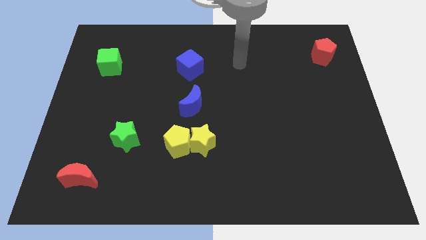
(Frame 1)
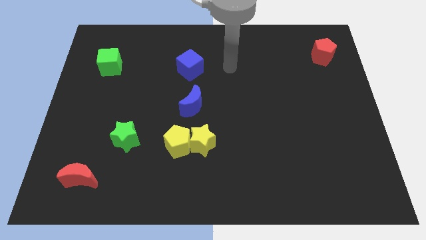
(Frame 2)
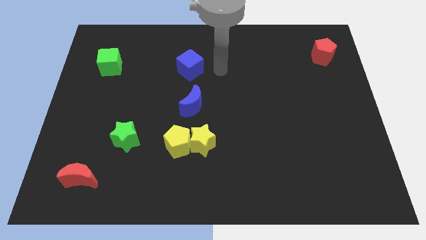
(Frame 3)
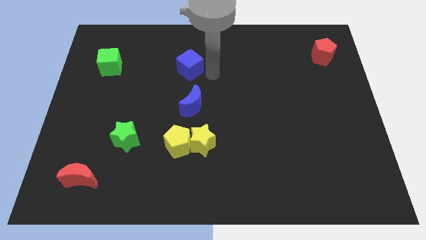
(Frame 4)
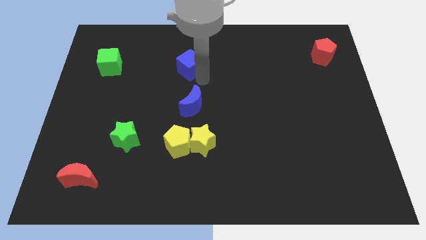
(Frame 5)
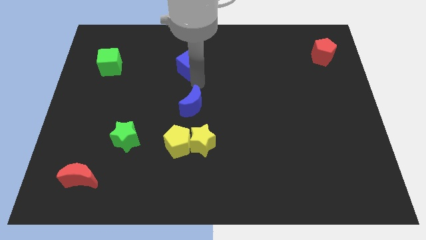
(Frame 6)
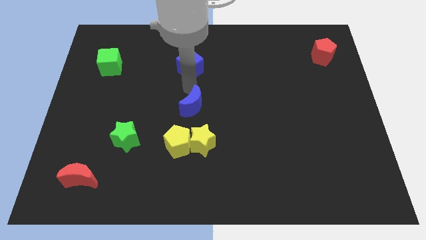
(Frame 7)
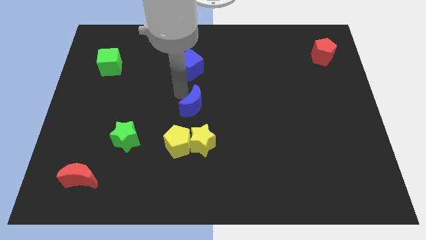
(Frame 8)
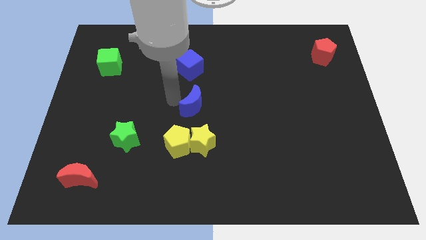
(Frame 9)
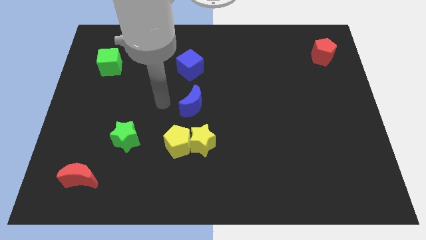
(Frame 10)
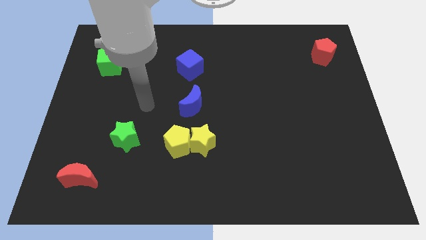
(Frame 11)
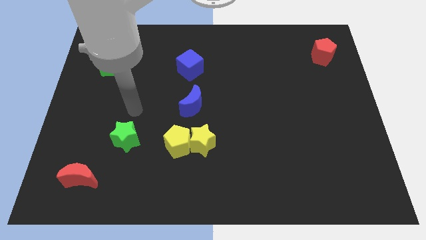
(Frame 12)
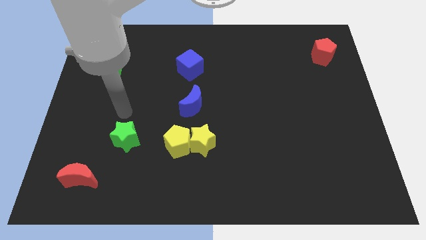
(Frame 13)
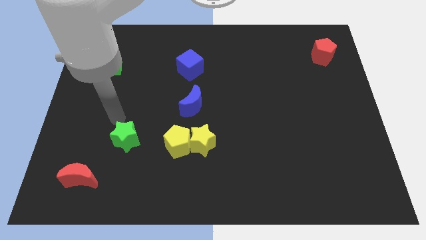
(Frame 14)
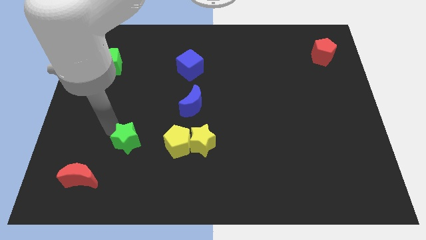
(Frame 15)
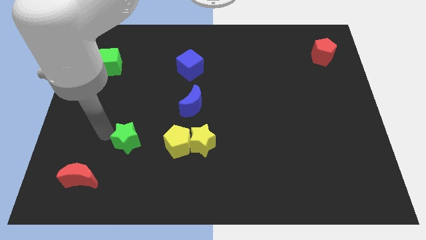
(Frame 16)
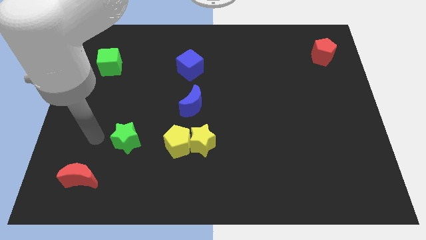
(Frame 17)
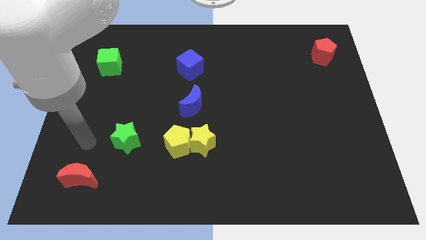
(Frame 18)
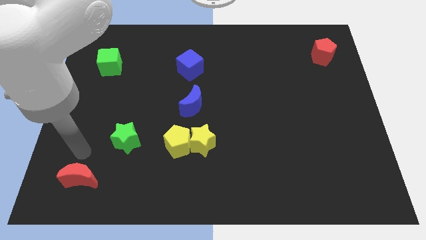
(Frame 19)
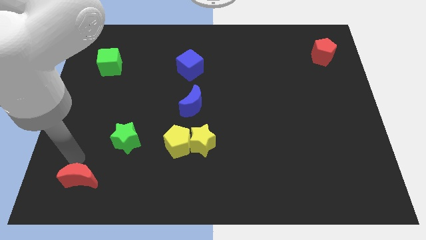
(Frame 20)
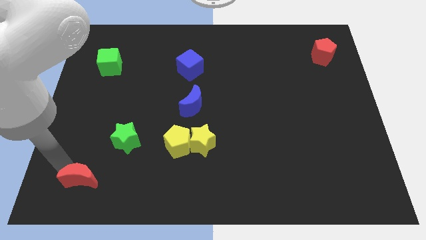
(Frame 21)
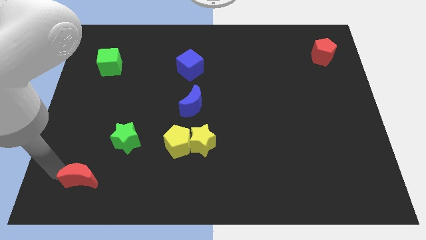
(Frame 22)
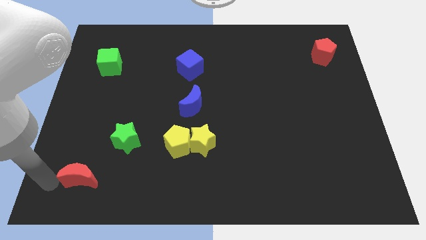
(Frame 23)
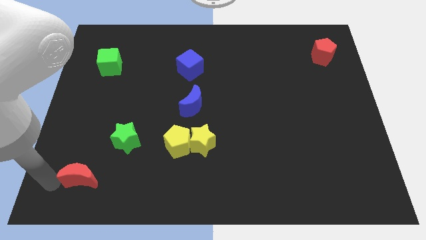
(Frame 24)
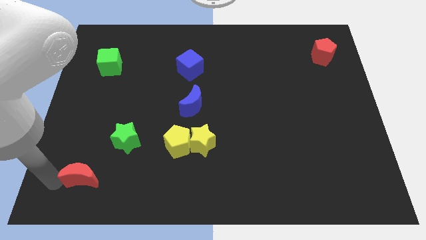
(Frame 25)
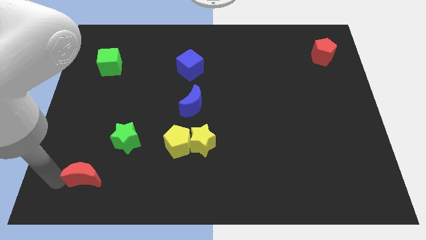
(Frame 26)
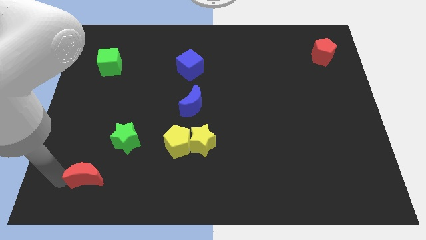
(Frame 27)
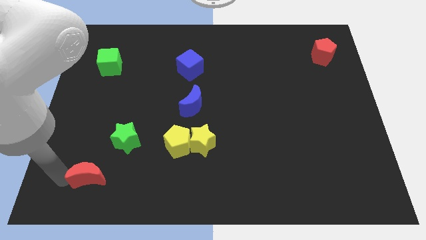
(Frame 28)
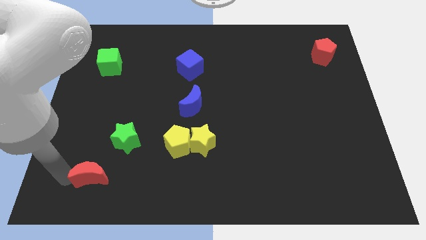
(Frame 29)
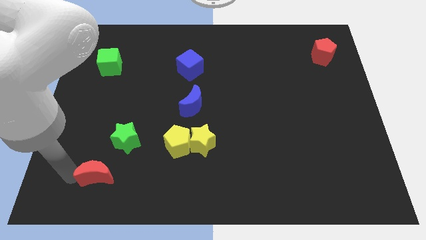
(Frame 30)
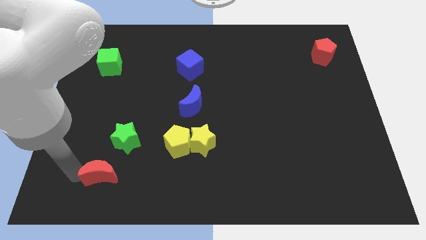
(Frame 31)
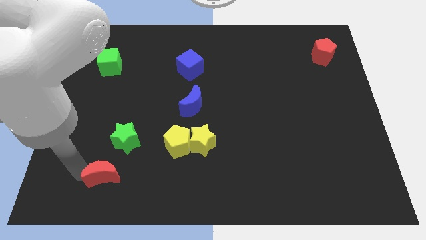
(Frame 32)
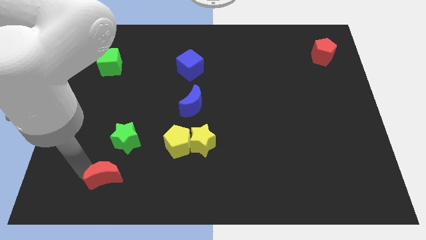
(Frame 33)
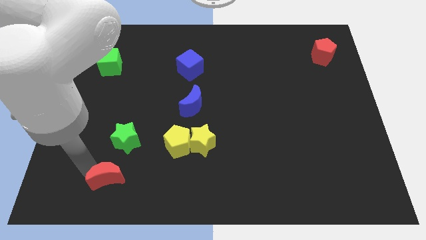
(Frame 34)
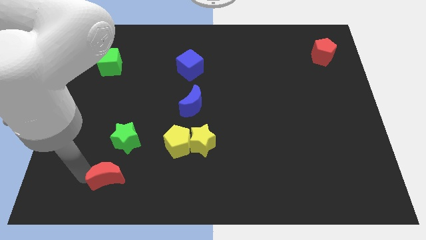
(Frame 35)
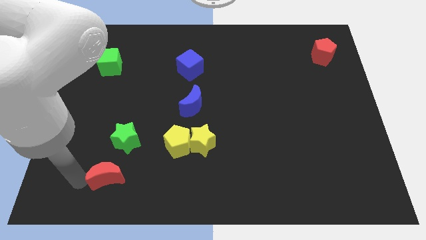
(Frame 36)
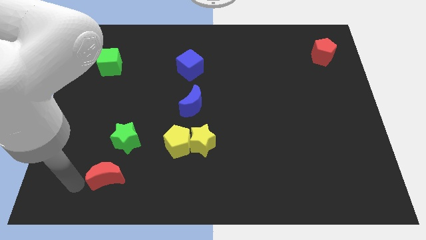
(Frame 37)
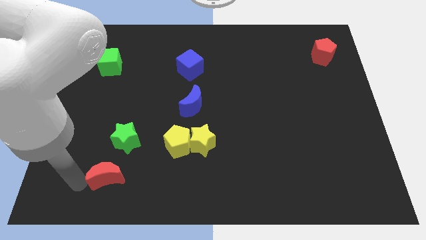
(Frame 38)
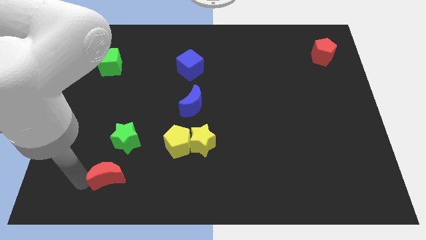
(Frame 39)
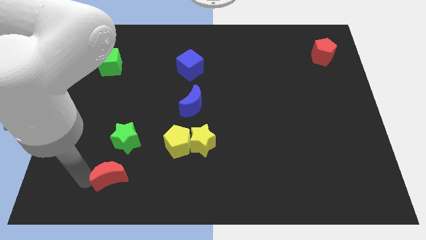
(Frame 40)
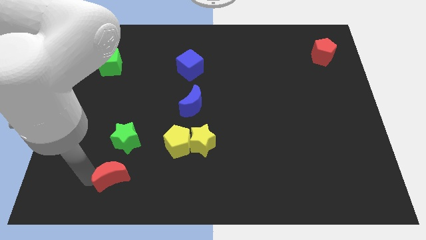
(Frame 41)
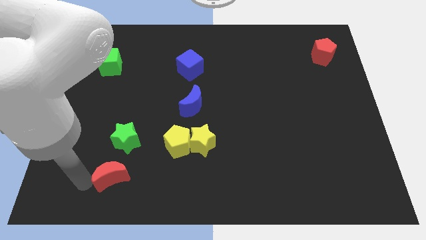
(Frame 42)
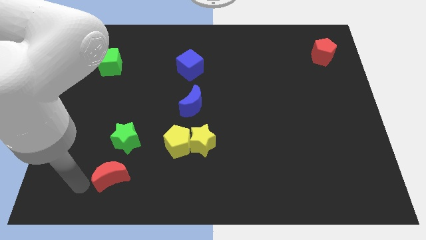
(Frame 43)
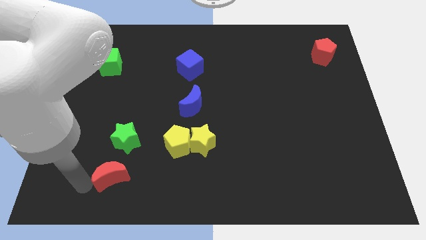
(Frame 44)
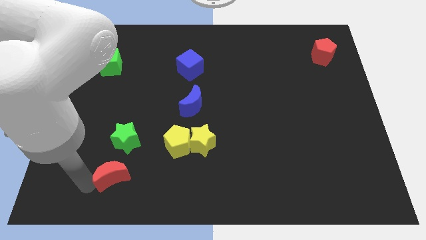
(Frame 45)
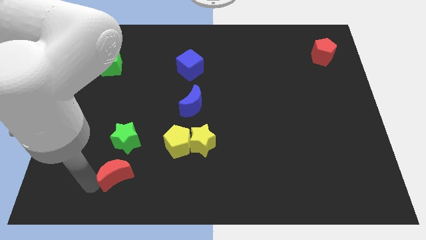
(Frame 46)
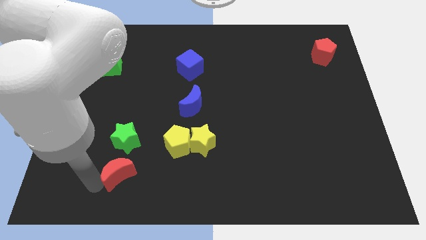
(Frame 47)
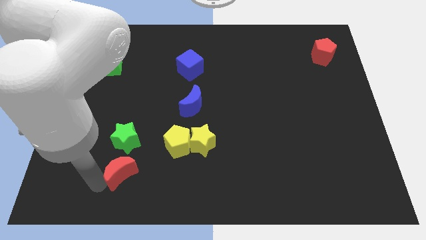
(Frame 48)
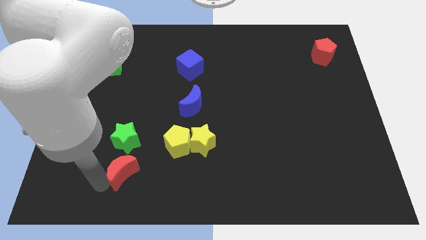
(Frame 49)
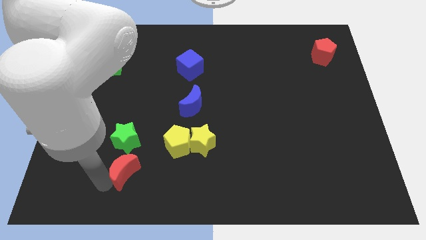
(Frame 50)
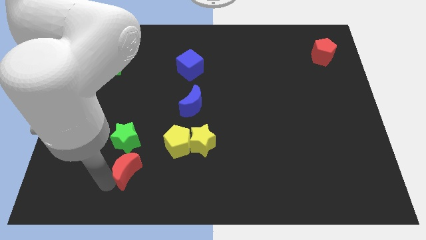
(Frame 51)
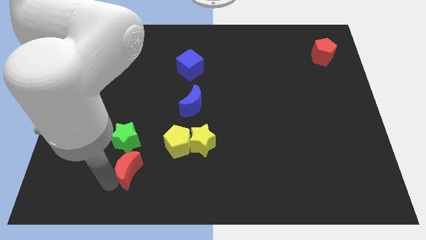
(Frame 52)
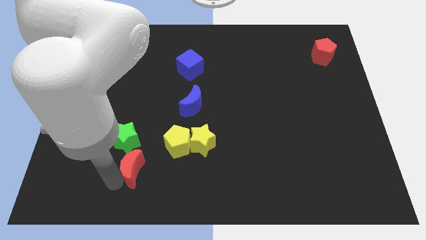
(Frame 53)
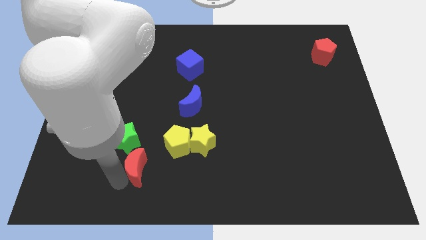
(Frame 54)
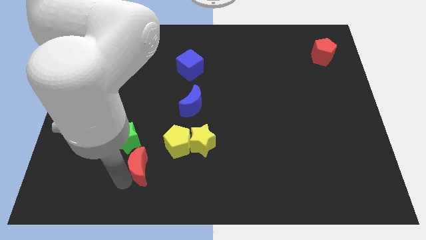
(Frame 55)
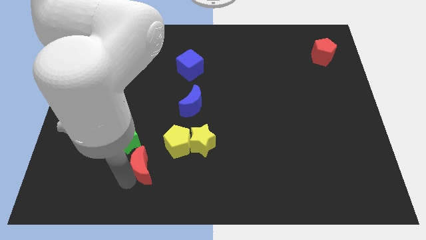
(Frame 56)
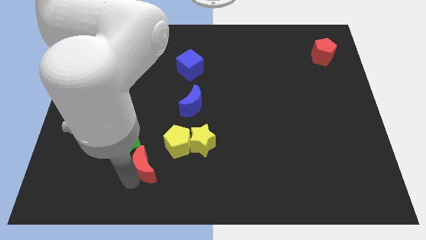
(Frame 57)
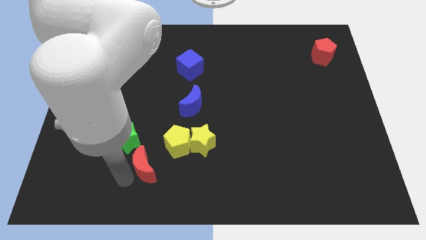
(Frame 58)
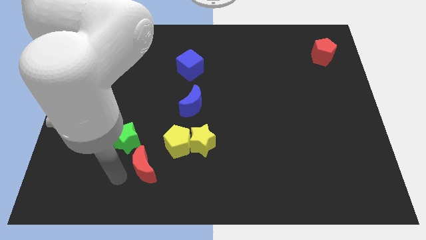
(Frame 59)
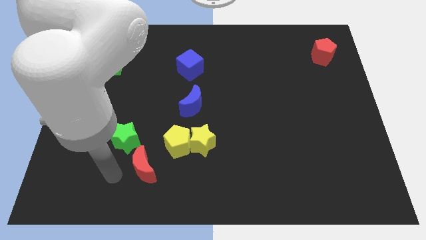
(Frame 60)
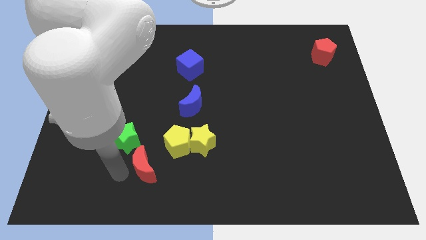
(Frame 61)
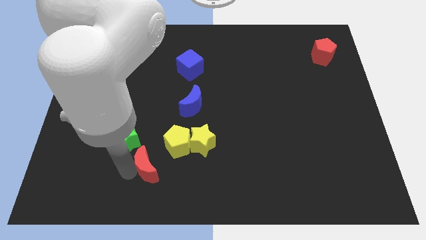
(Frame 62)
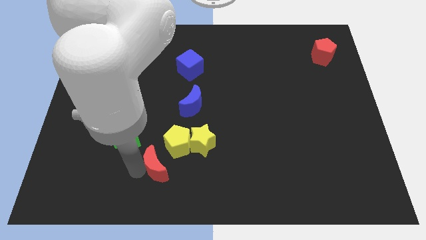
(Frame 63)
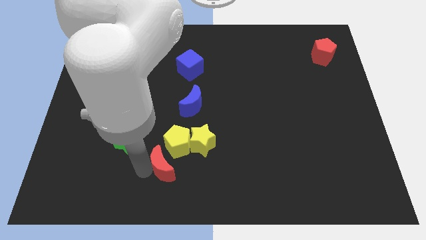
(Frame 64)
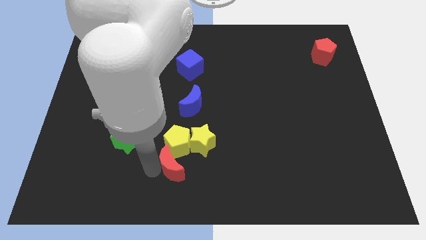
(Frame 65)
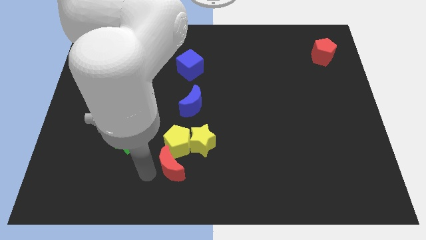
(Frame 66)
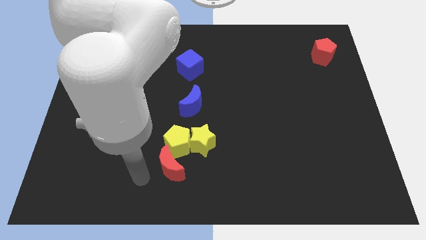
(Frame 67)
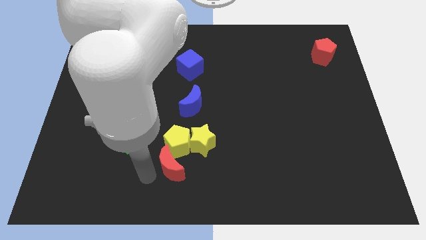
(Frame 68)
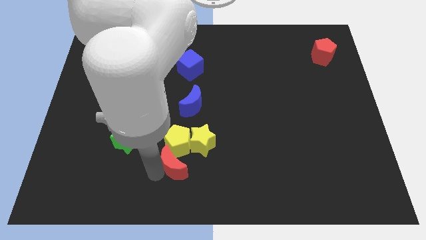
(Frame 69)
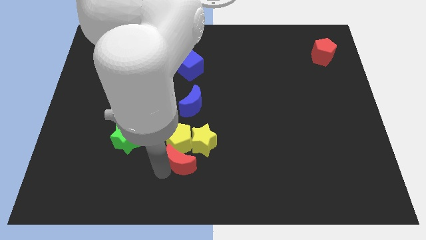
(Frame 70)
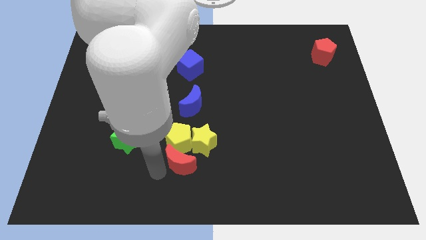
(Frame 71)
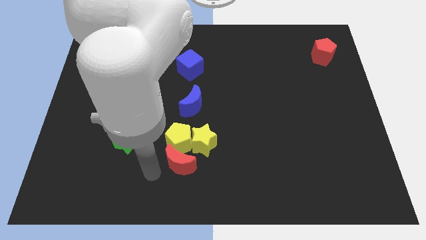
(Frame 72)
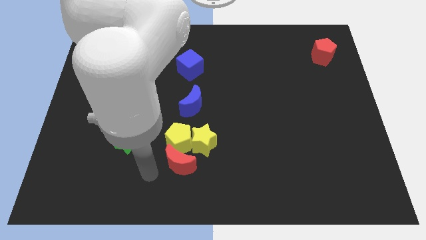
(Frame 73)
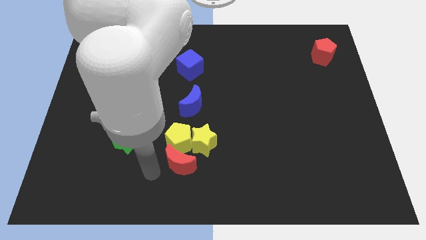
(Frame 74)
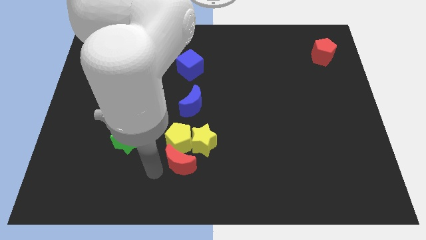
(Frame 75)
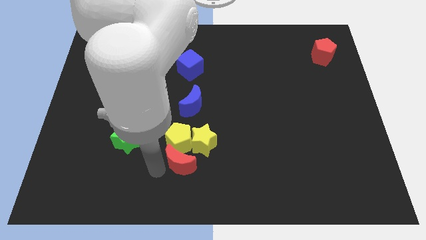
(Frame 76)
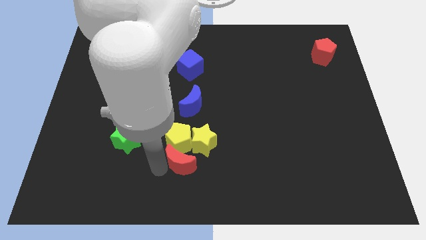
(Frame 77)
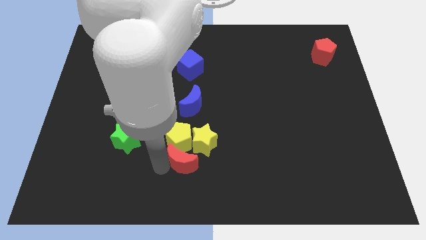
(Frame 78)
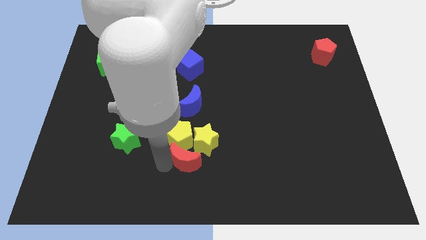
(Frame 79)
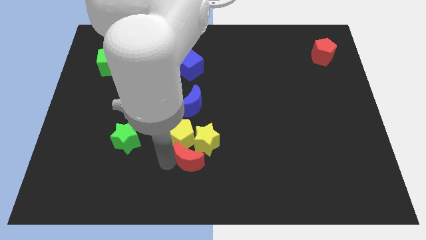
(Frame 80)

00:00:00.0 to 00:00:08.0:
put the red moon next to the yellow star
